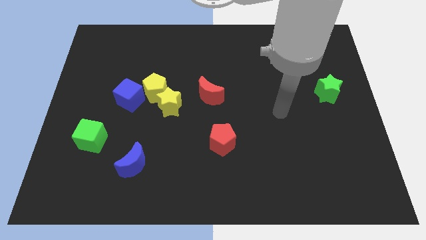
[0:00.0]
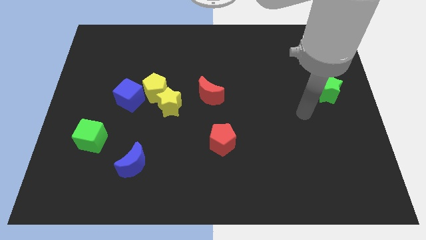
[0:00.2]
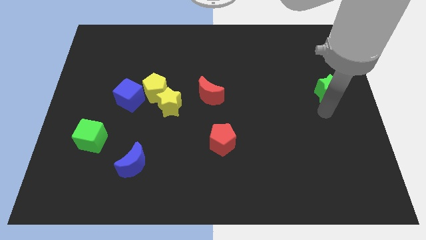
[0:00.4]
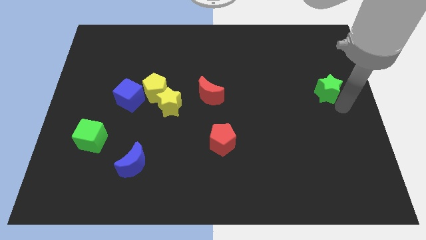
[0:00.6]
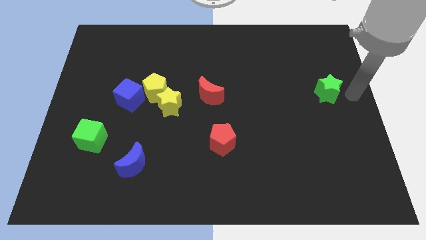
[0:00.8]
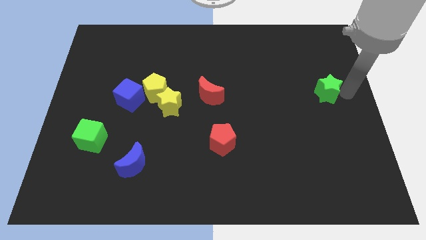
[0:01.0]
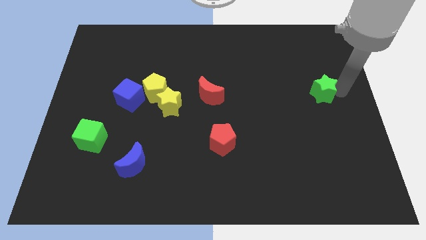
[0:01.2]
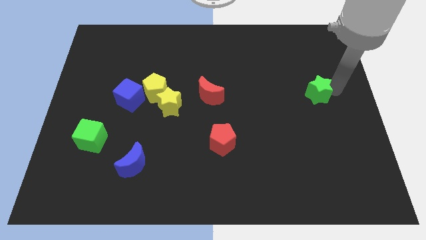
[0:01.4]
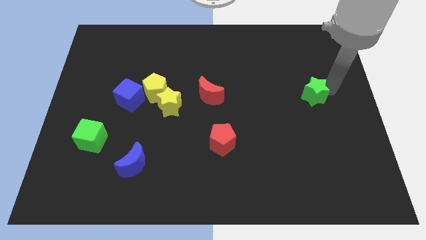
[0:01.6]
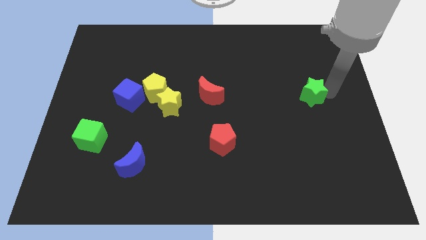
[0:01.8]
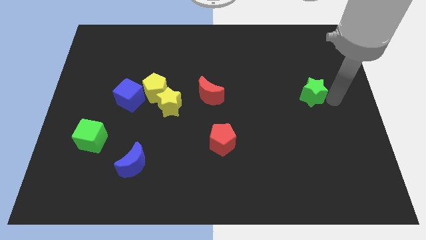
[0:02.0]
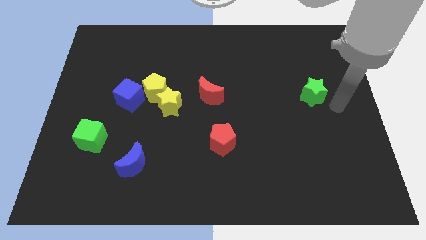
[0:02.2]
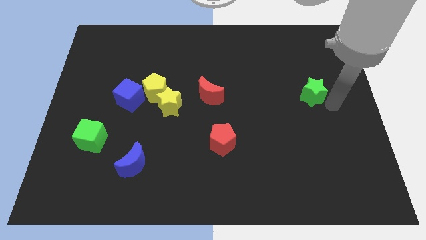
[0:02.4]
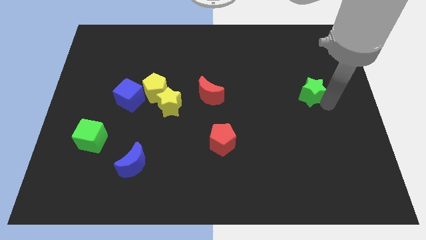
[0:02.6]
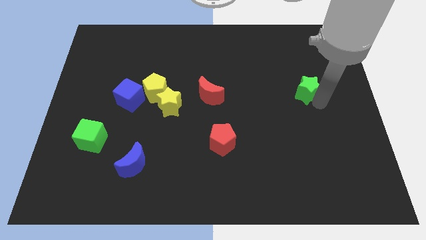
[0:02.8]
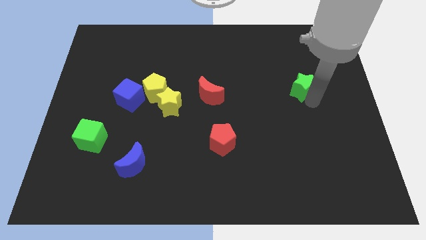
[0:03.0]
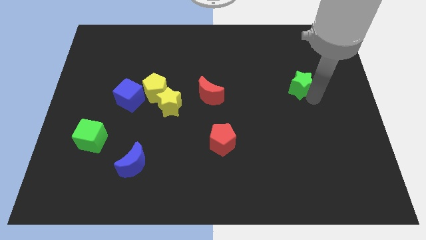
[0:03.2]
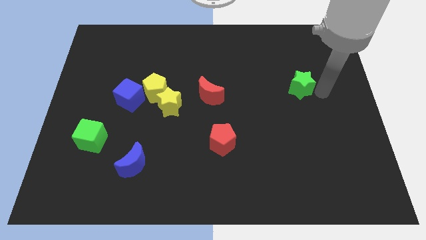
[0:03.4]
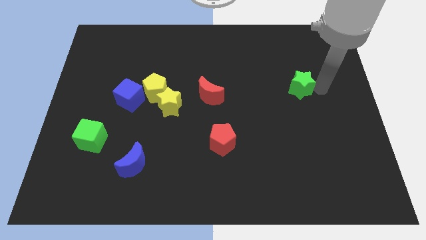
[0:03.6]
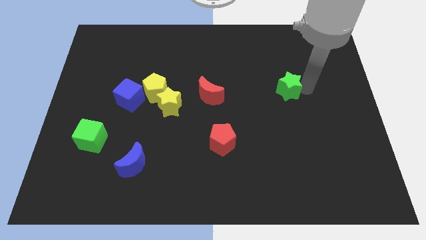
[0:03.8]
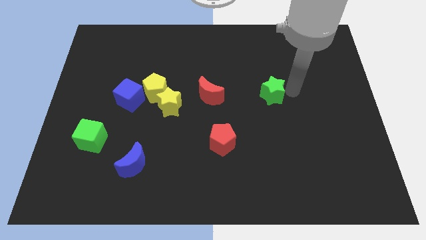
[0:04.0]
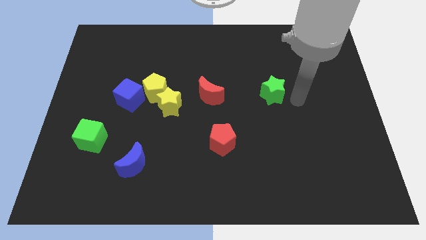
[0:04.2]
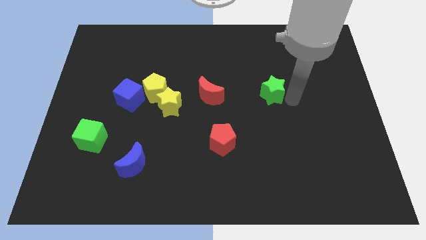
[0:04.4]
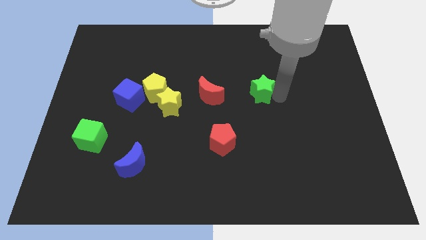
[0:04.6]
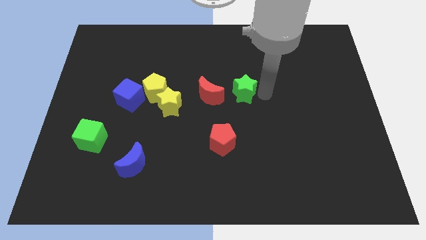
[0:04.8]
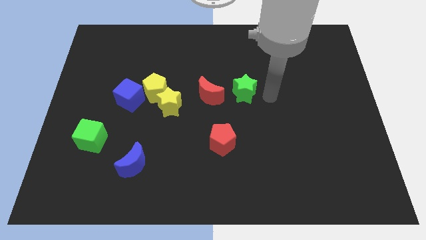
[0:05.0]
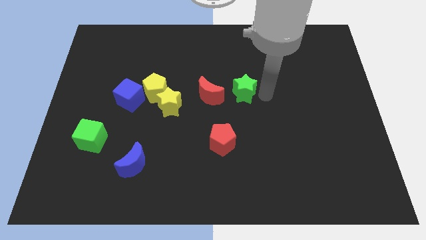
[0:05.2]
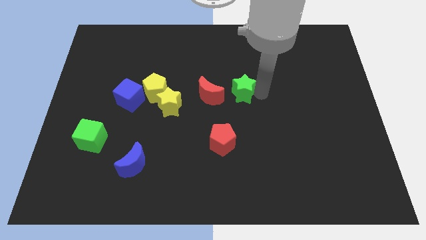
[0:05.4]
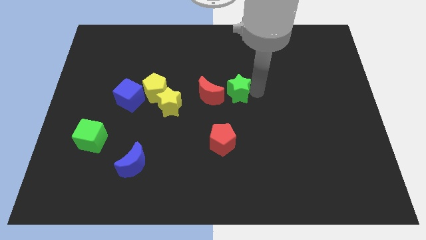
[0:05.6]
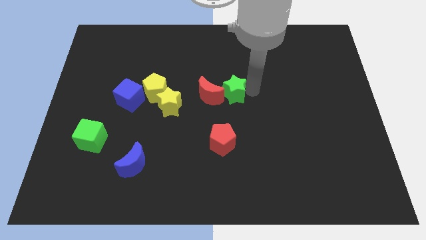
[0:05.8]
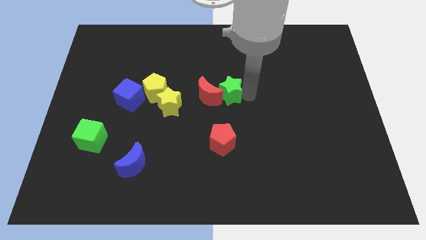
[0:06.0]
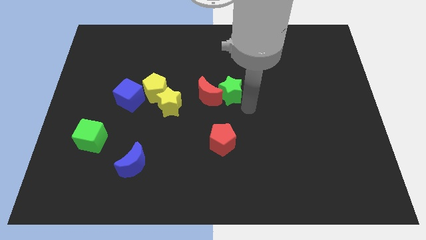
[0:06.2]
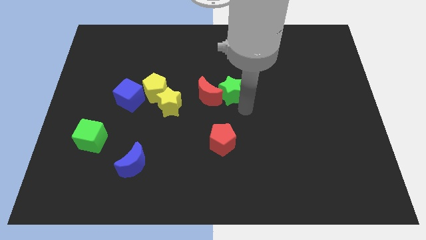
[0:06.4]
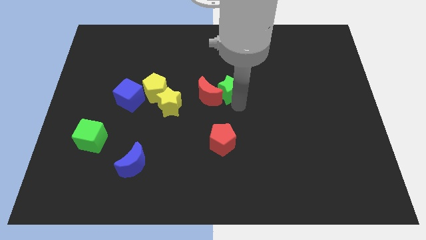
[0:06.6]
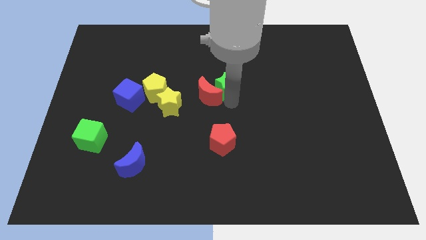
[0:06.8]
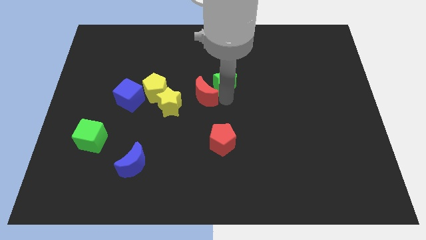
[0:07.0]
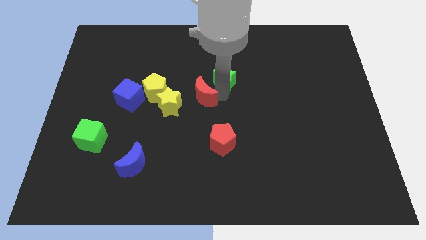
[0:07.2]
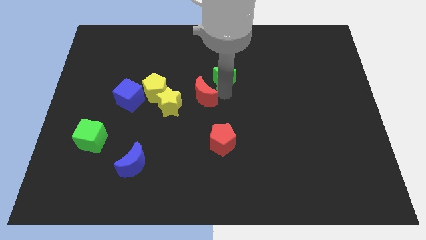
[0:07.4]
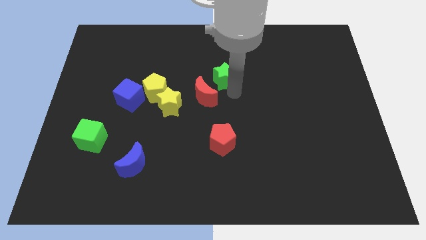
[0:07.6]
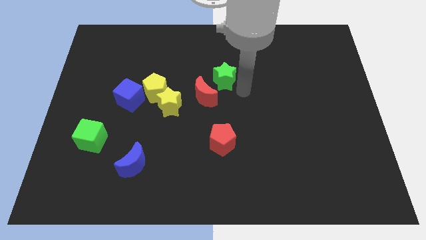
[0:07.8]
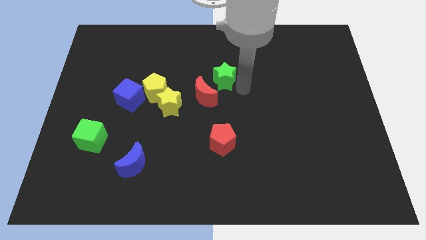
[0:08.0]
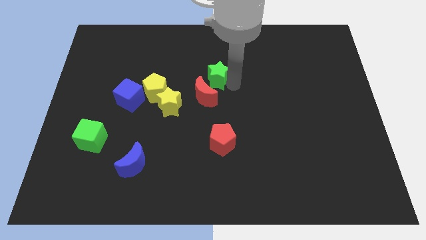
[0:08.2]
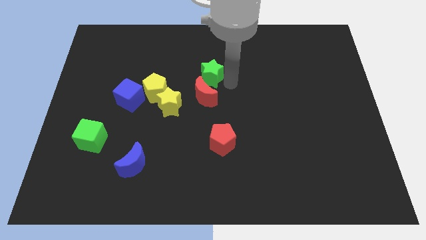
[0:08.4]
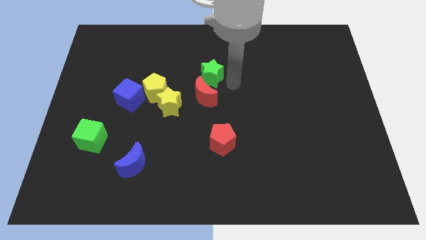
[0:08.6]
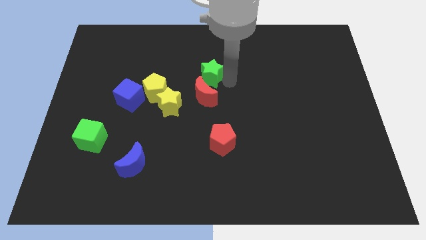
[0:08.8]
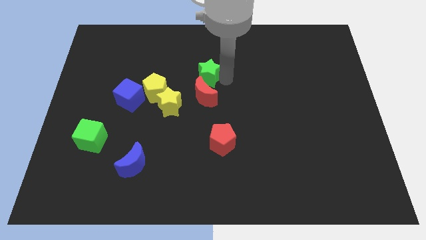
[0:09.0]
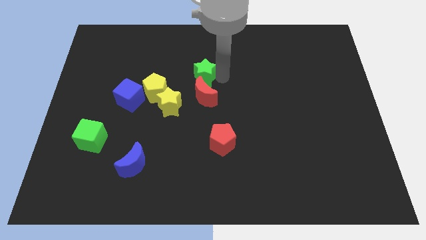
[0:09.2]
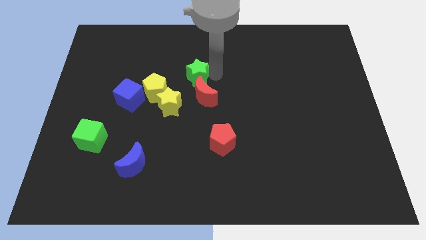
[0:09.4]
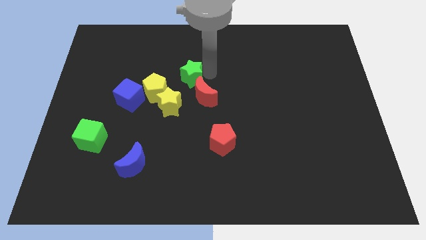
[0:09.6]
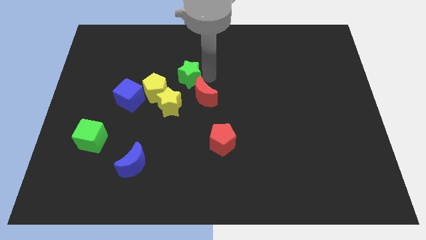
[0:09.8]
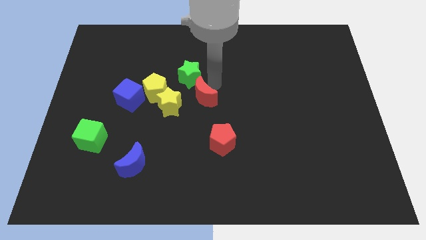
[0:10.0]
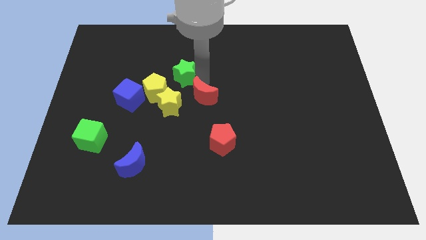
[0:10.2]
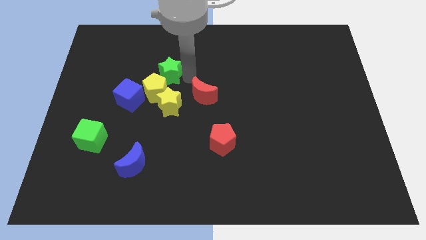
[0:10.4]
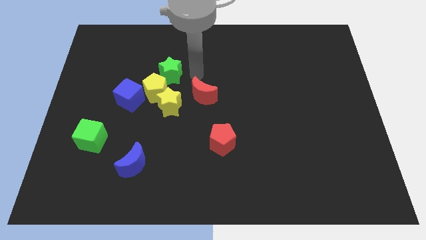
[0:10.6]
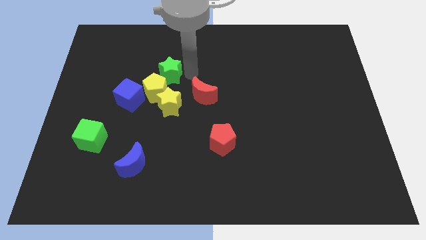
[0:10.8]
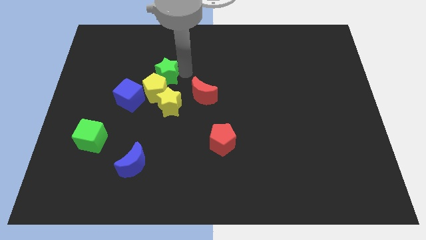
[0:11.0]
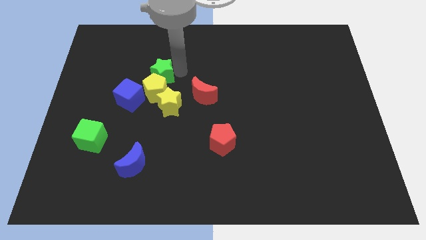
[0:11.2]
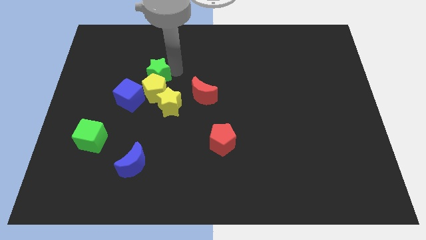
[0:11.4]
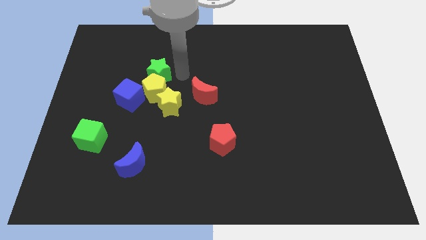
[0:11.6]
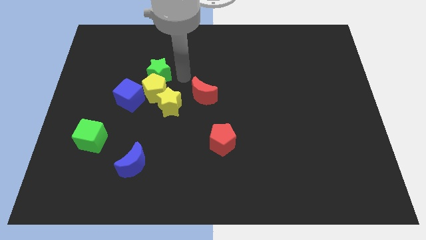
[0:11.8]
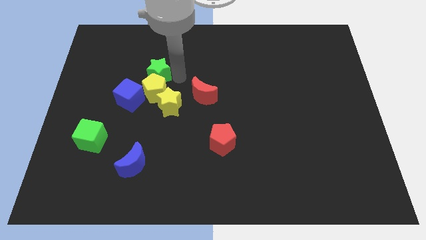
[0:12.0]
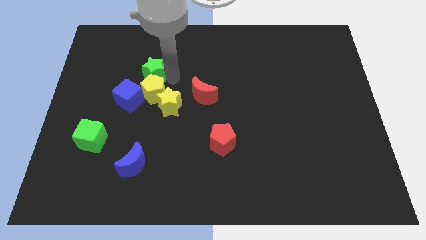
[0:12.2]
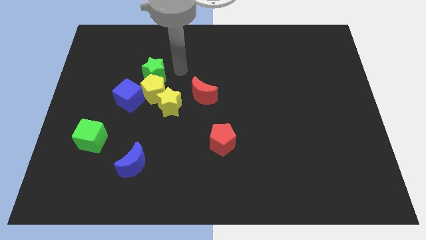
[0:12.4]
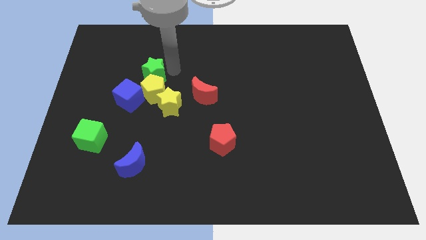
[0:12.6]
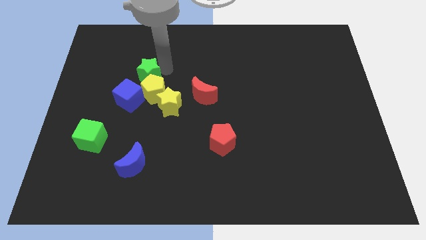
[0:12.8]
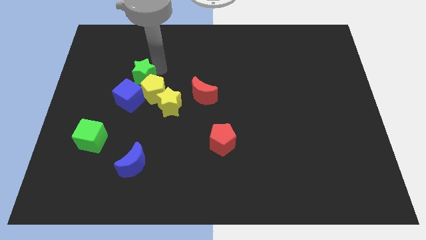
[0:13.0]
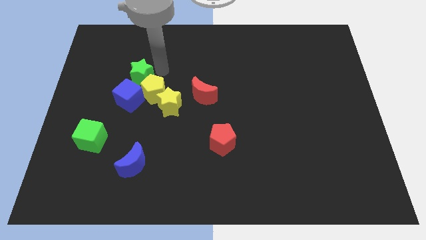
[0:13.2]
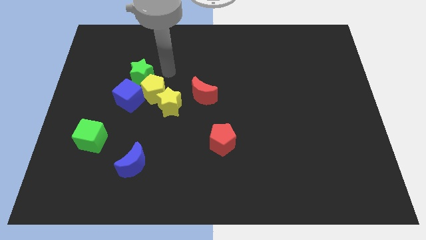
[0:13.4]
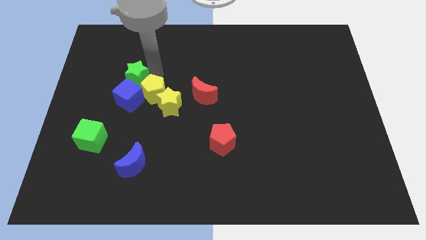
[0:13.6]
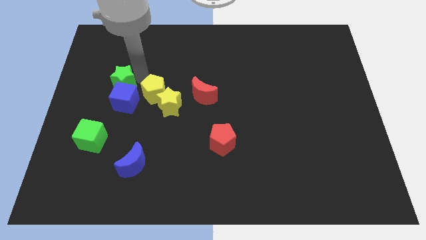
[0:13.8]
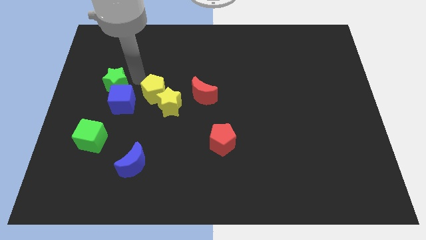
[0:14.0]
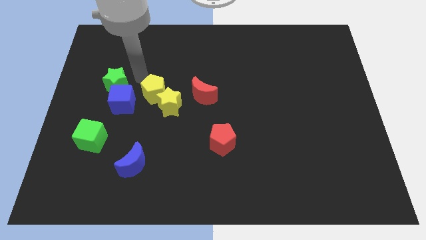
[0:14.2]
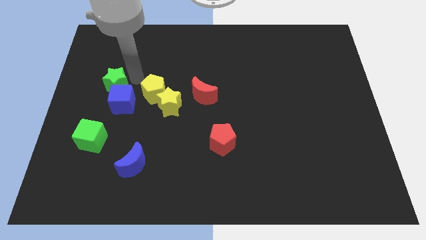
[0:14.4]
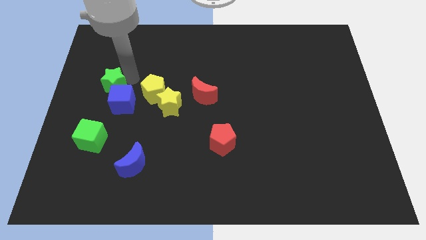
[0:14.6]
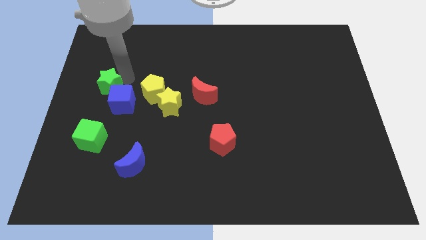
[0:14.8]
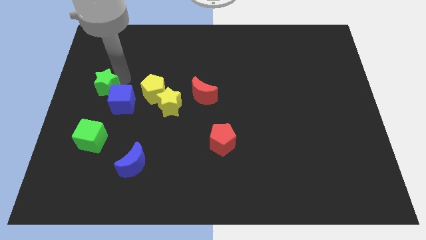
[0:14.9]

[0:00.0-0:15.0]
slide the green star to the left side
